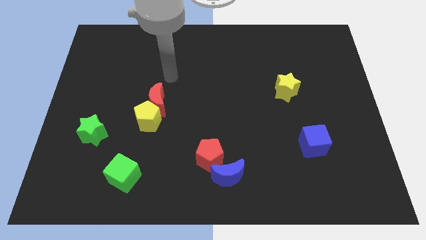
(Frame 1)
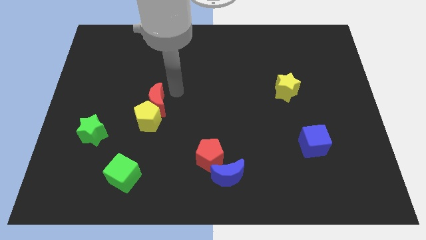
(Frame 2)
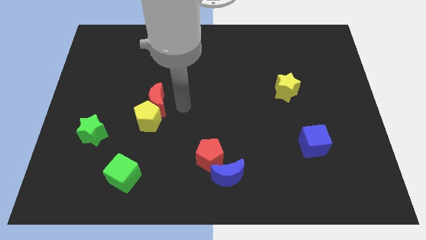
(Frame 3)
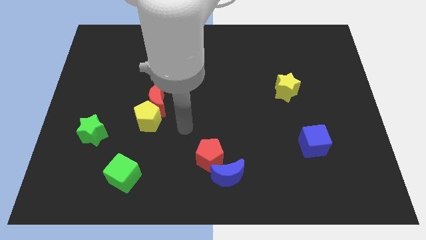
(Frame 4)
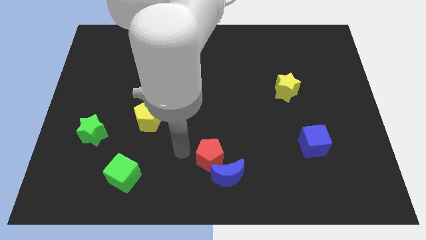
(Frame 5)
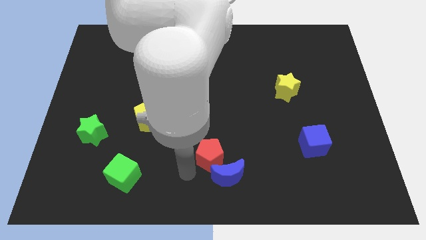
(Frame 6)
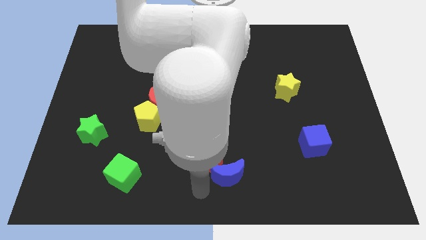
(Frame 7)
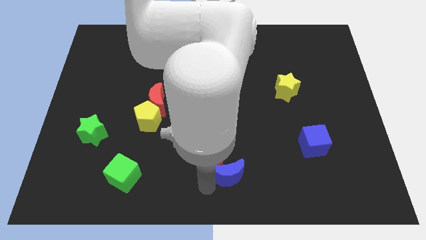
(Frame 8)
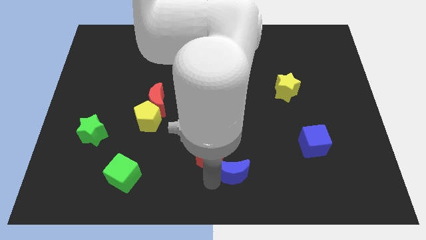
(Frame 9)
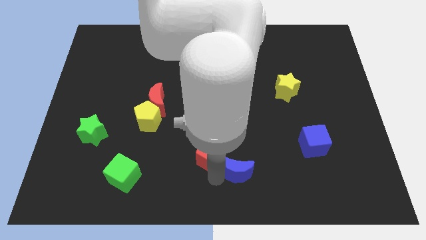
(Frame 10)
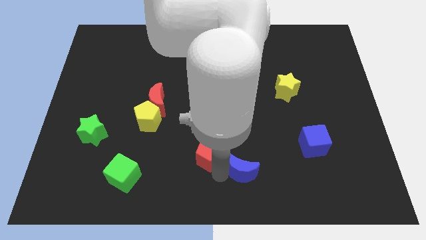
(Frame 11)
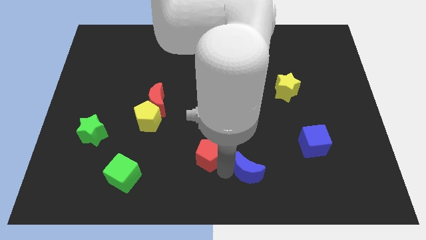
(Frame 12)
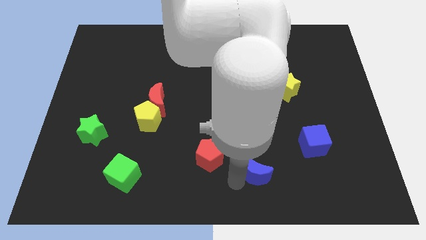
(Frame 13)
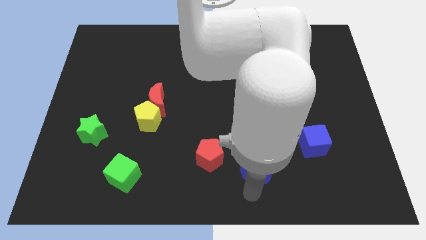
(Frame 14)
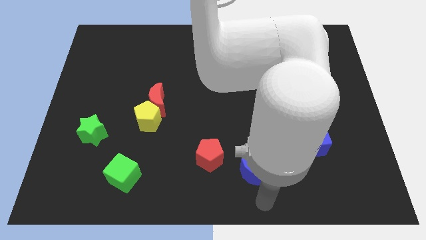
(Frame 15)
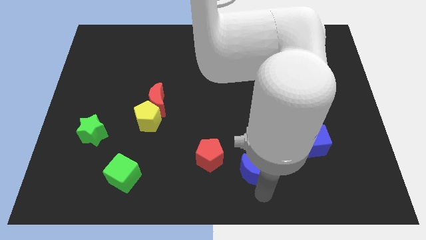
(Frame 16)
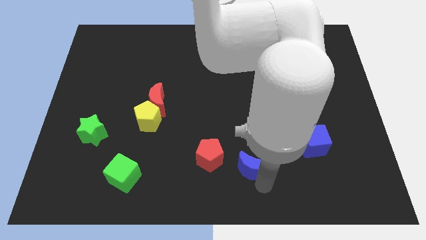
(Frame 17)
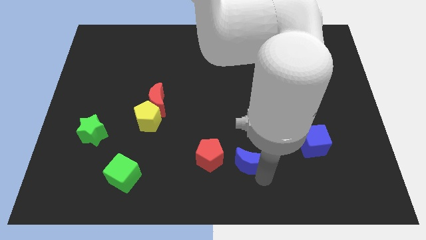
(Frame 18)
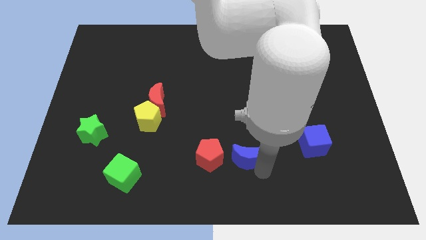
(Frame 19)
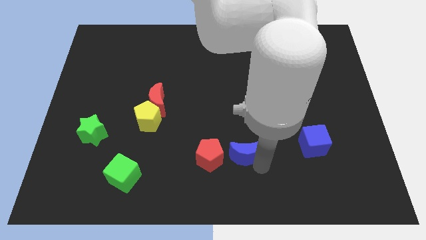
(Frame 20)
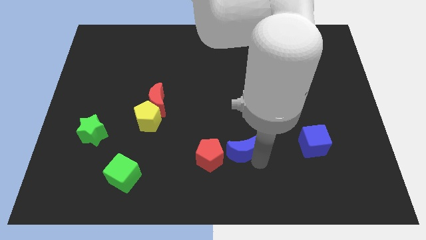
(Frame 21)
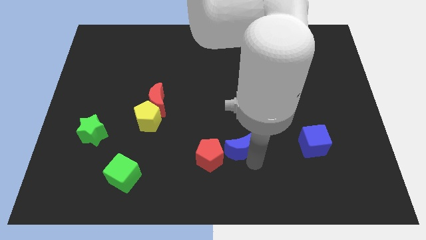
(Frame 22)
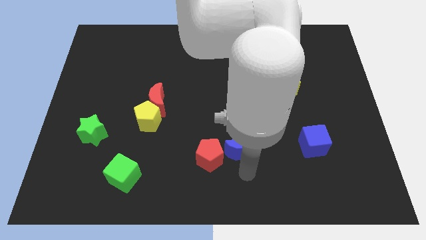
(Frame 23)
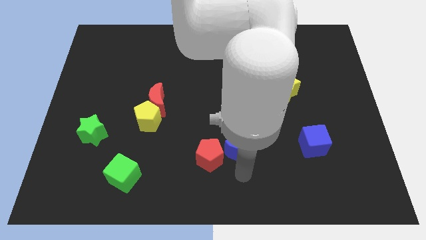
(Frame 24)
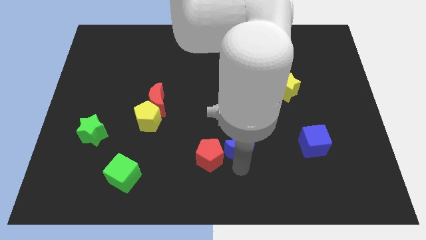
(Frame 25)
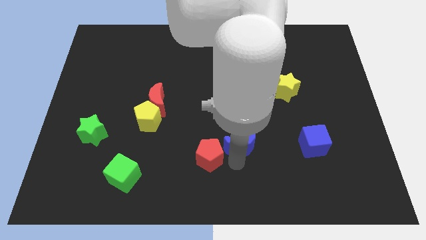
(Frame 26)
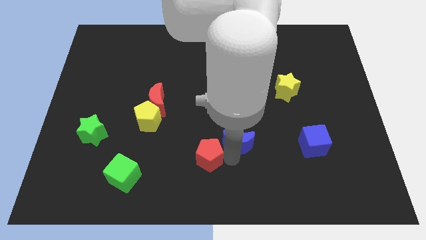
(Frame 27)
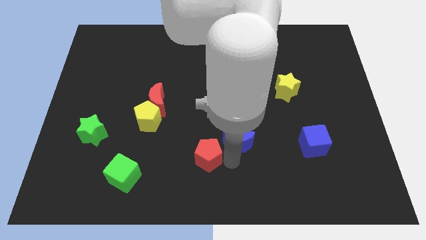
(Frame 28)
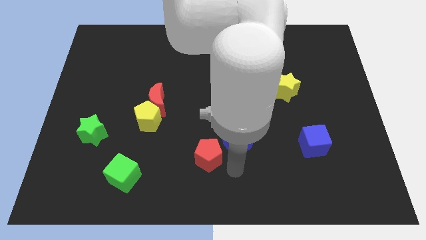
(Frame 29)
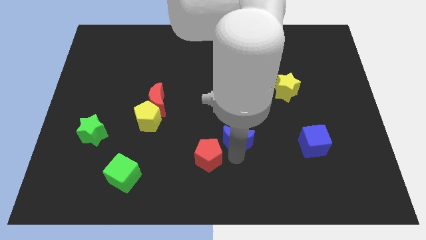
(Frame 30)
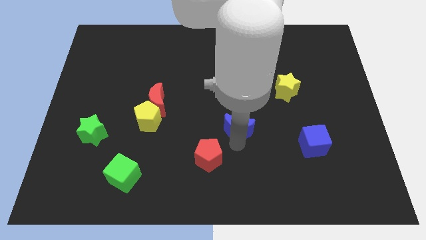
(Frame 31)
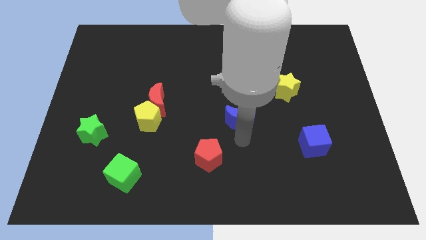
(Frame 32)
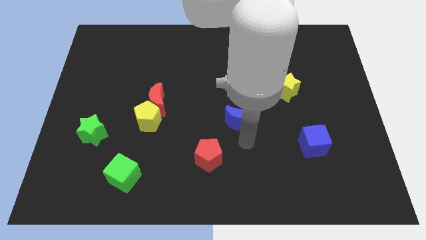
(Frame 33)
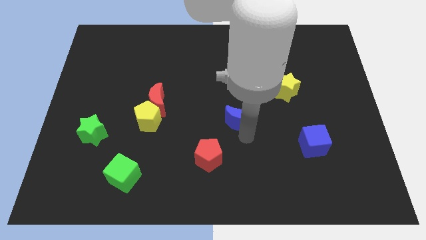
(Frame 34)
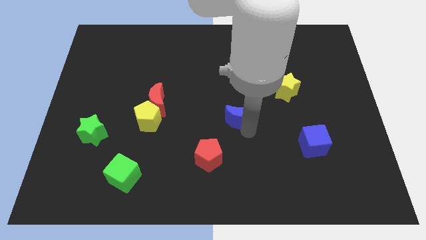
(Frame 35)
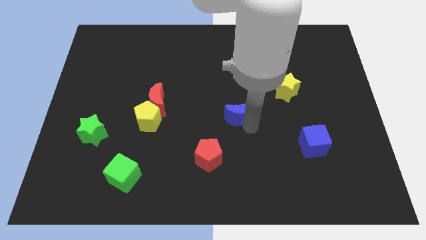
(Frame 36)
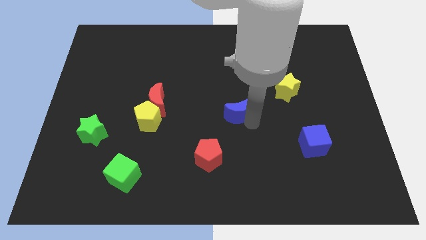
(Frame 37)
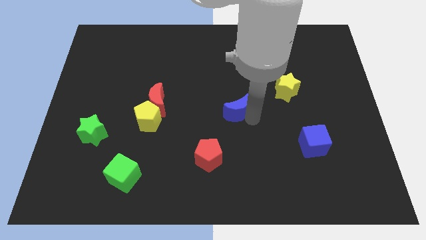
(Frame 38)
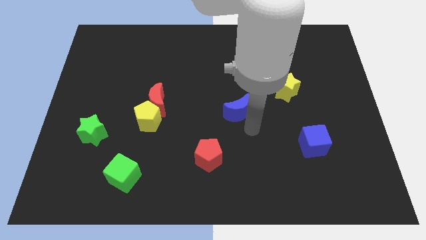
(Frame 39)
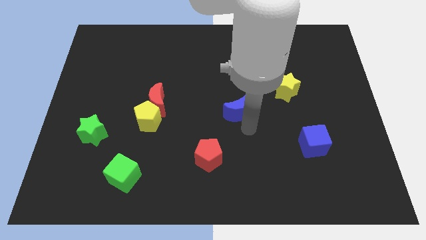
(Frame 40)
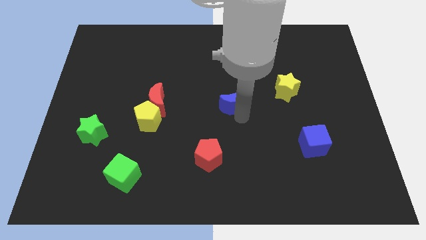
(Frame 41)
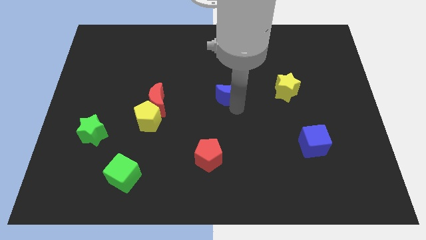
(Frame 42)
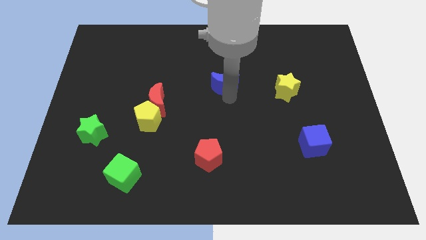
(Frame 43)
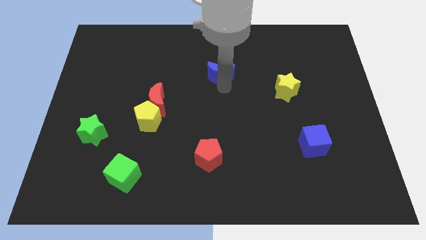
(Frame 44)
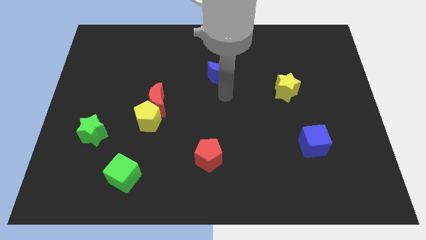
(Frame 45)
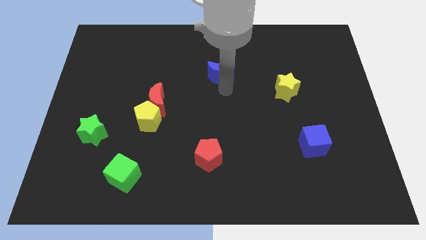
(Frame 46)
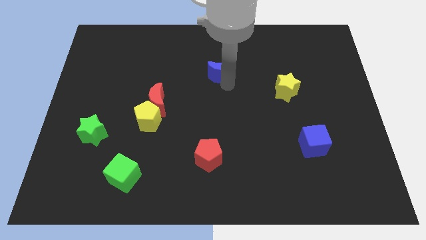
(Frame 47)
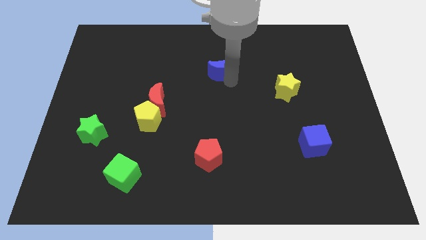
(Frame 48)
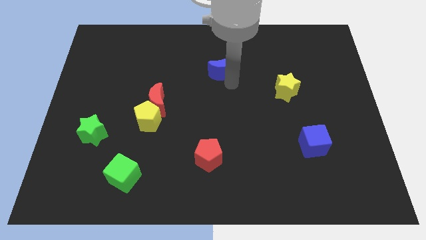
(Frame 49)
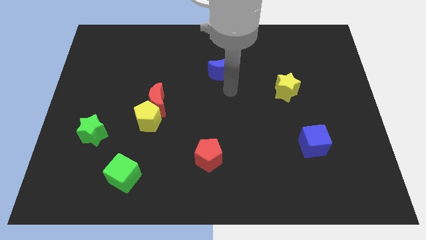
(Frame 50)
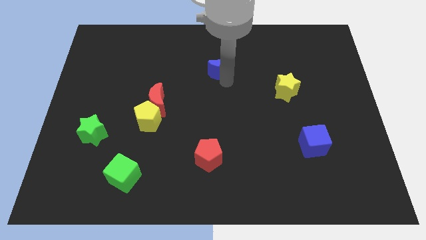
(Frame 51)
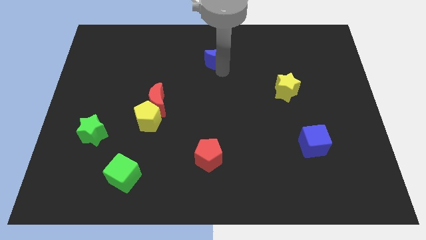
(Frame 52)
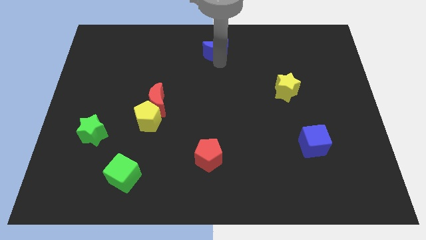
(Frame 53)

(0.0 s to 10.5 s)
slide the blue moon to the towards your base

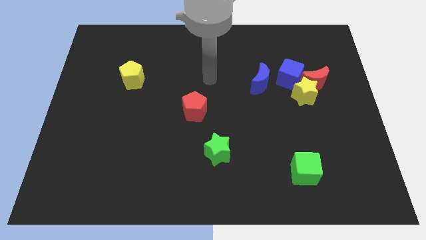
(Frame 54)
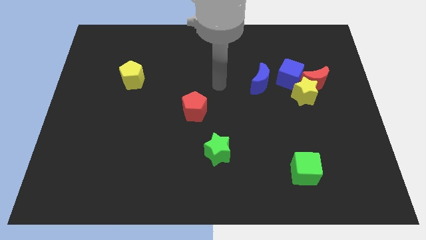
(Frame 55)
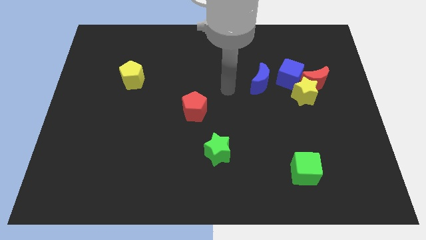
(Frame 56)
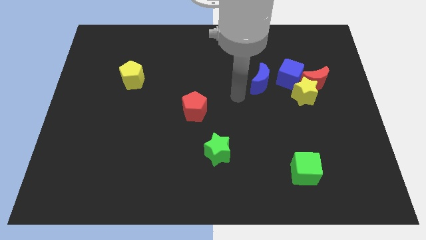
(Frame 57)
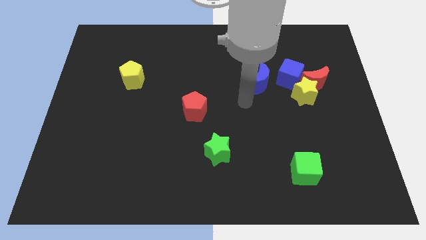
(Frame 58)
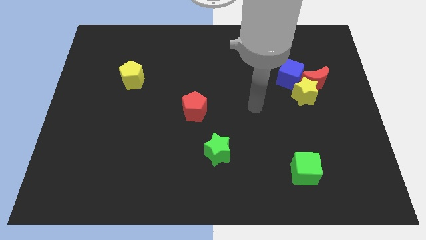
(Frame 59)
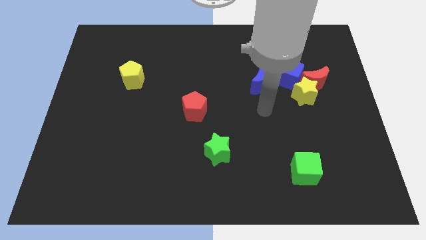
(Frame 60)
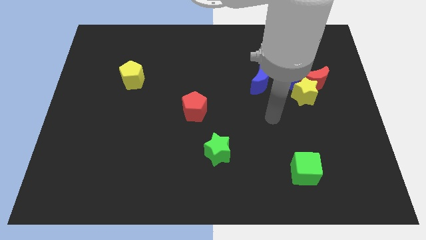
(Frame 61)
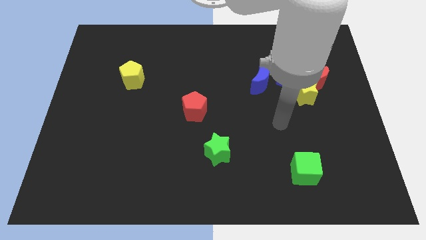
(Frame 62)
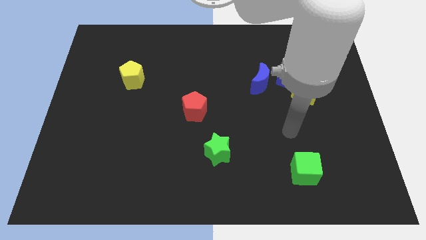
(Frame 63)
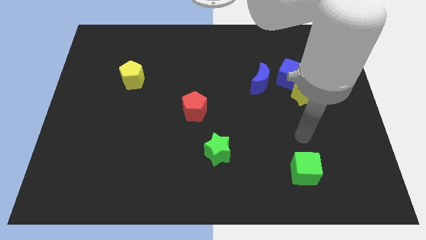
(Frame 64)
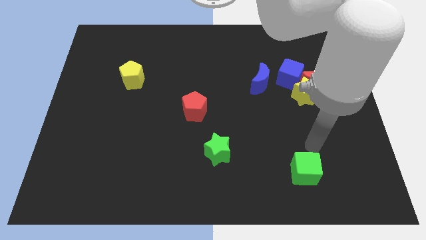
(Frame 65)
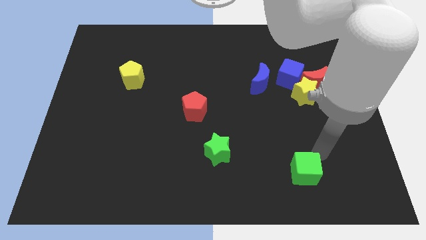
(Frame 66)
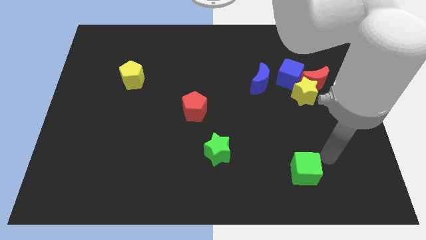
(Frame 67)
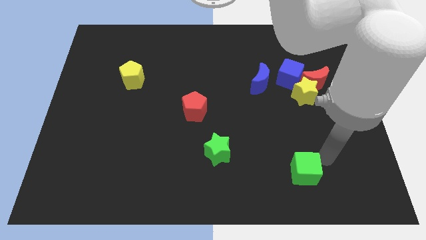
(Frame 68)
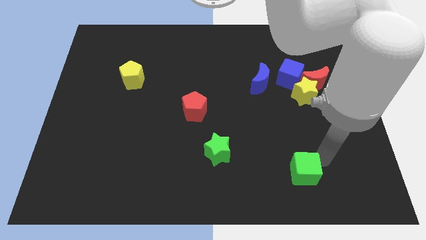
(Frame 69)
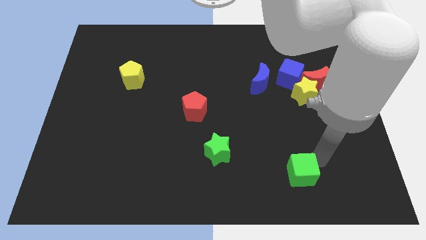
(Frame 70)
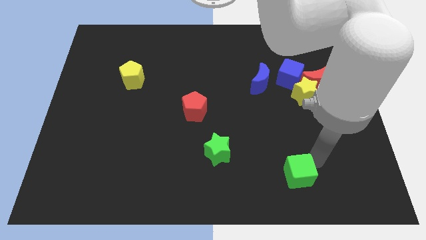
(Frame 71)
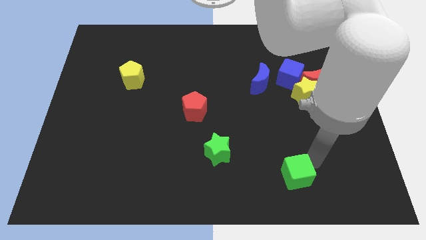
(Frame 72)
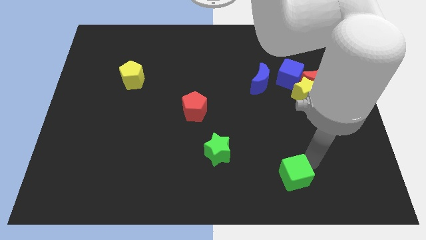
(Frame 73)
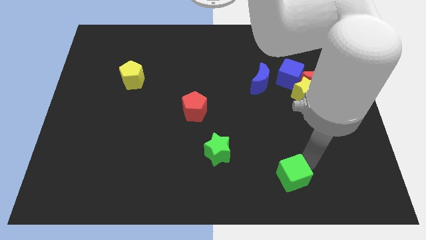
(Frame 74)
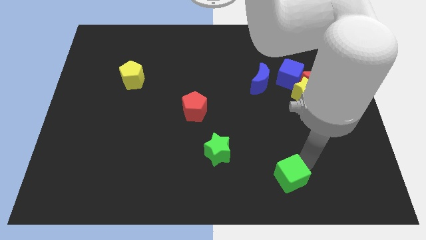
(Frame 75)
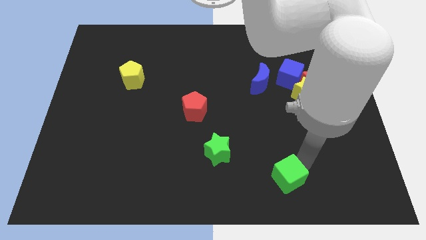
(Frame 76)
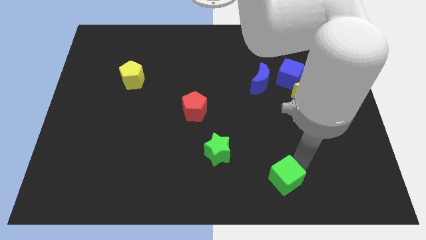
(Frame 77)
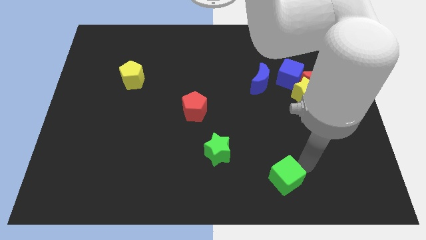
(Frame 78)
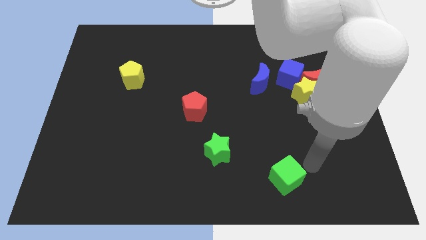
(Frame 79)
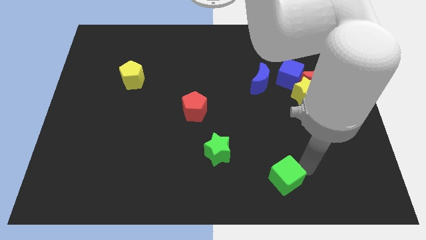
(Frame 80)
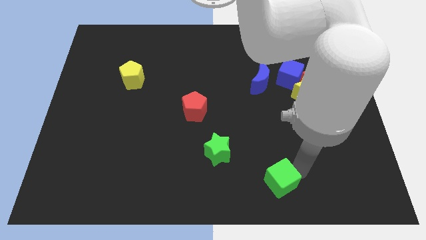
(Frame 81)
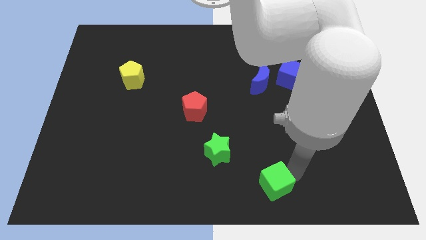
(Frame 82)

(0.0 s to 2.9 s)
put the green cube to the bottom
